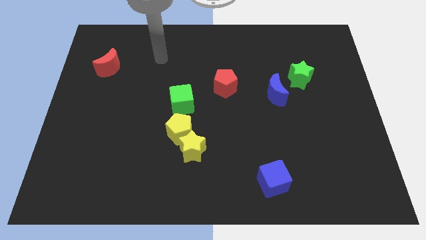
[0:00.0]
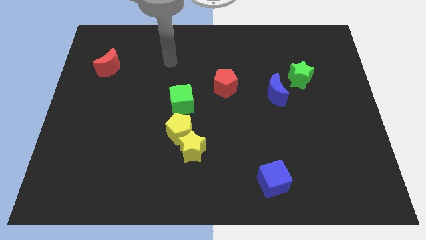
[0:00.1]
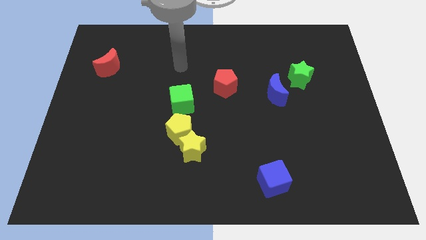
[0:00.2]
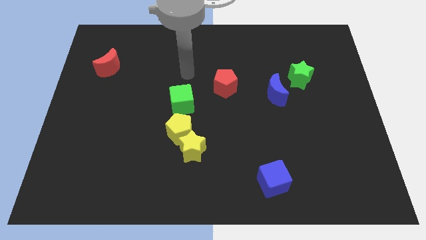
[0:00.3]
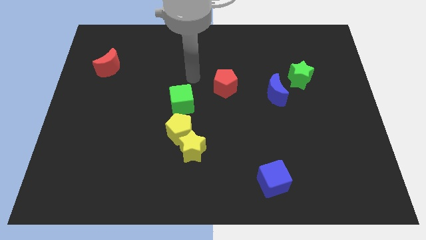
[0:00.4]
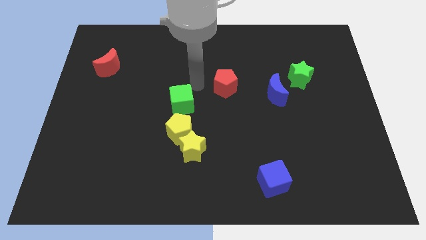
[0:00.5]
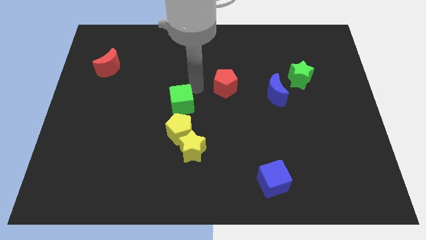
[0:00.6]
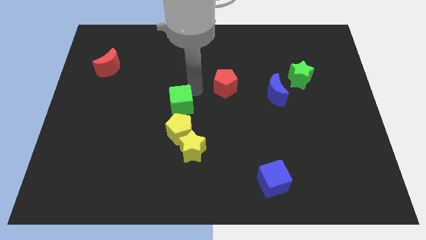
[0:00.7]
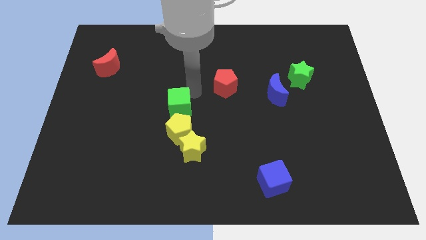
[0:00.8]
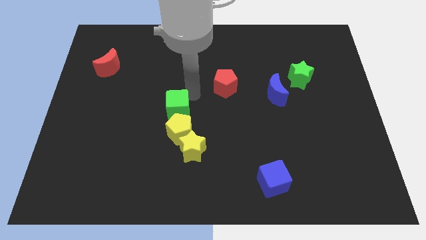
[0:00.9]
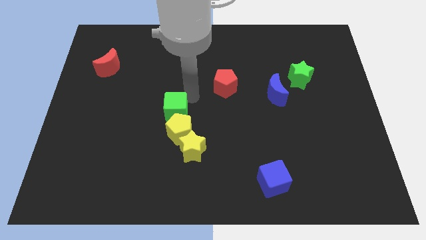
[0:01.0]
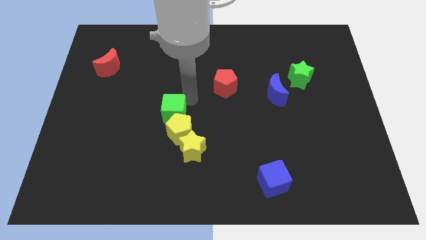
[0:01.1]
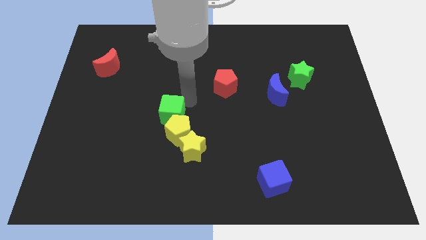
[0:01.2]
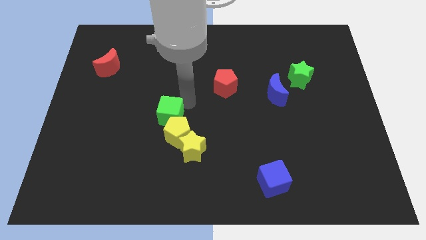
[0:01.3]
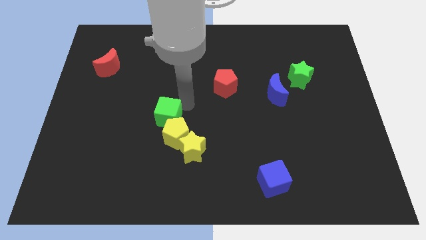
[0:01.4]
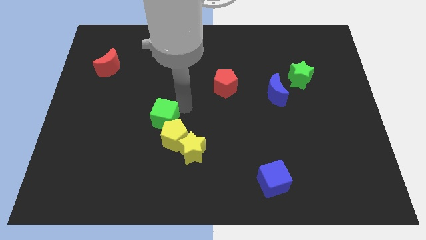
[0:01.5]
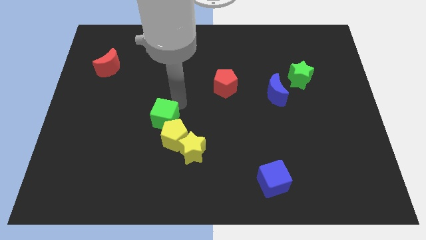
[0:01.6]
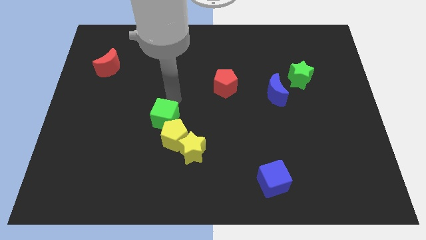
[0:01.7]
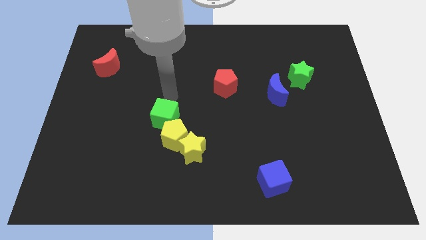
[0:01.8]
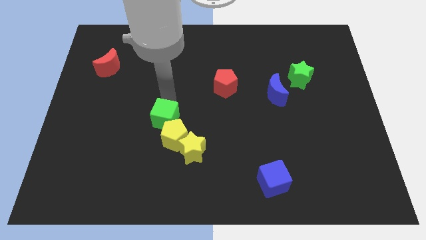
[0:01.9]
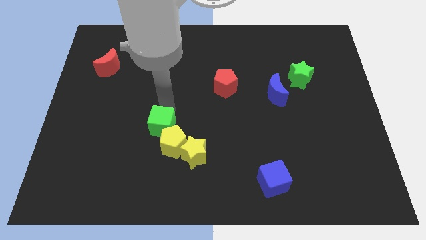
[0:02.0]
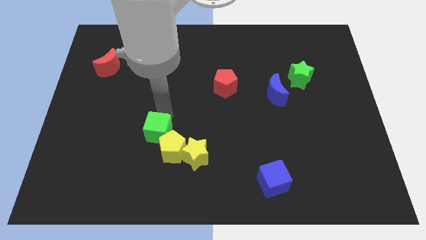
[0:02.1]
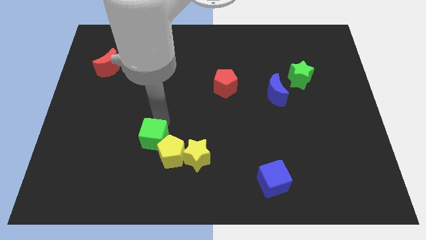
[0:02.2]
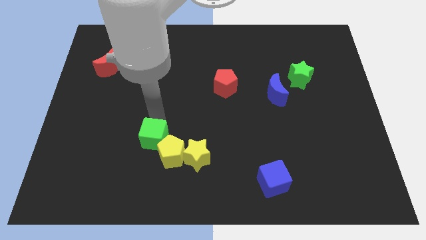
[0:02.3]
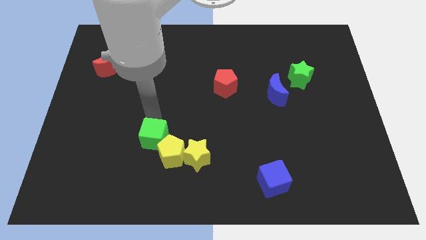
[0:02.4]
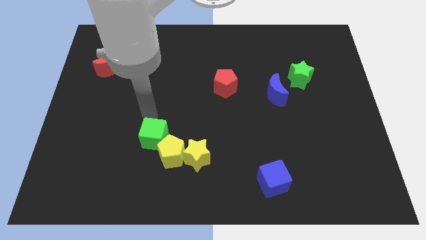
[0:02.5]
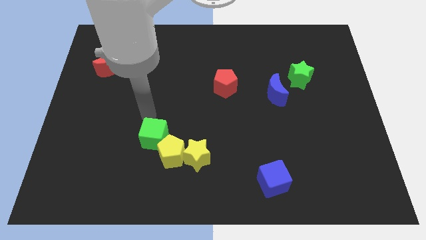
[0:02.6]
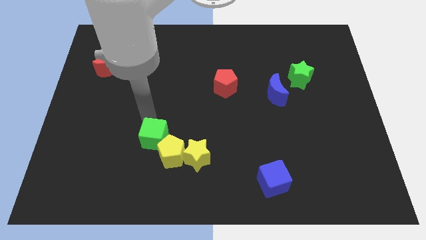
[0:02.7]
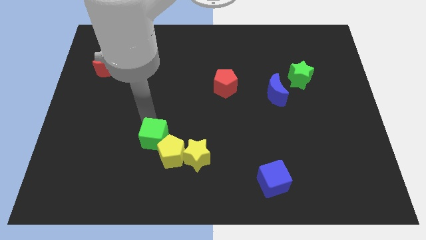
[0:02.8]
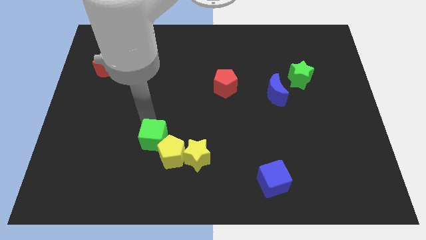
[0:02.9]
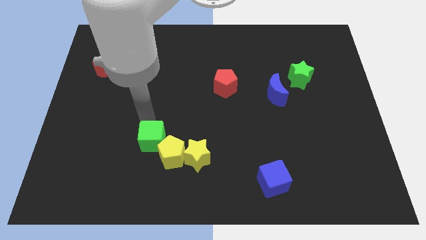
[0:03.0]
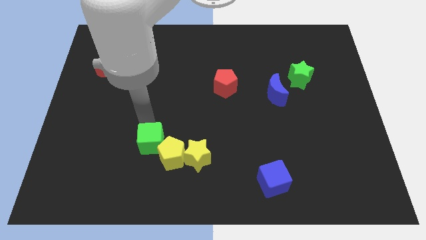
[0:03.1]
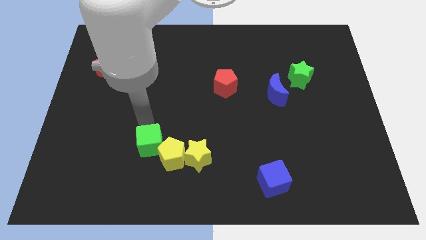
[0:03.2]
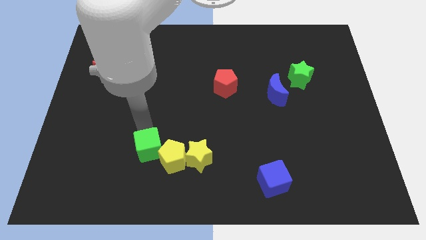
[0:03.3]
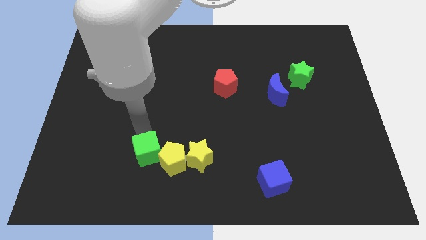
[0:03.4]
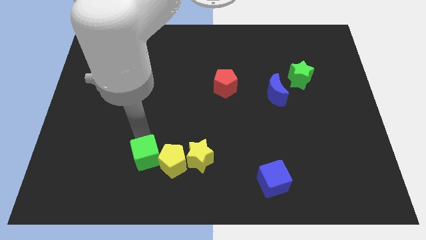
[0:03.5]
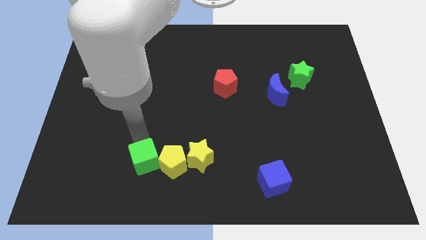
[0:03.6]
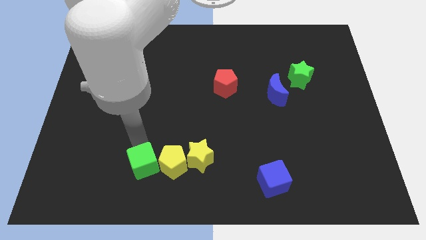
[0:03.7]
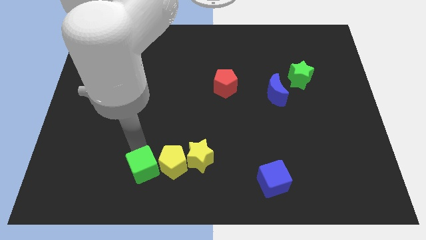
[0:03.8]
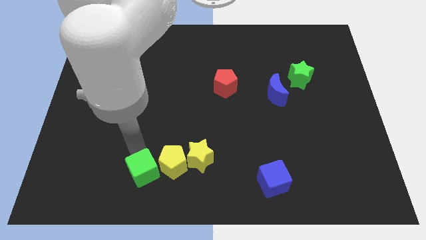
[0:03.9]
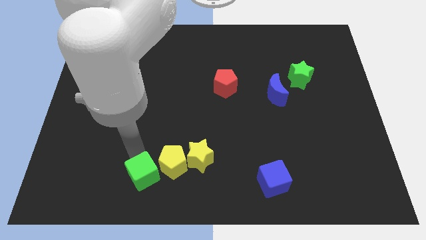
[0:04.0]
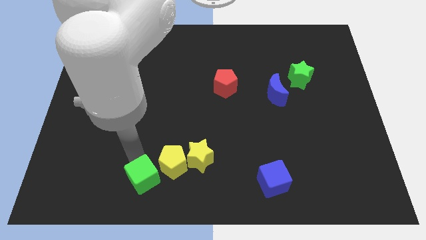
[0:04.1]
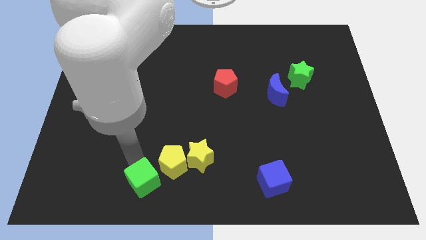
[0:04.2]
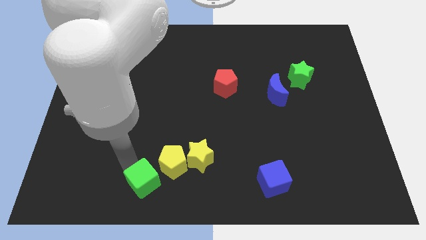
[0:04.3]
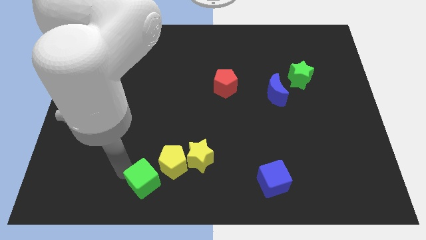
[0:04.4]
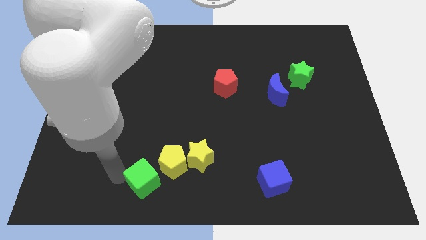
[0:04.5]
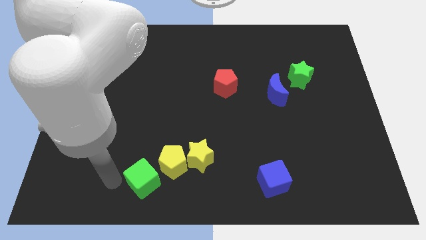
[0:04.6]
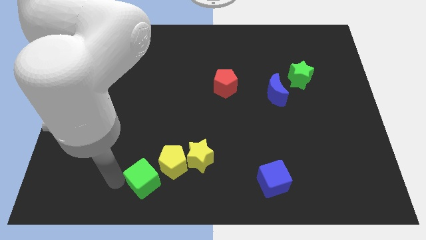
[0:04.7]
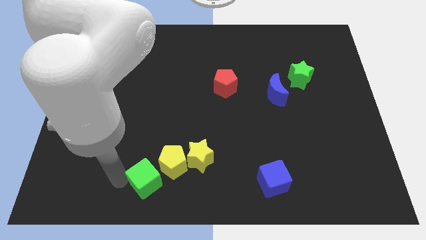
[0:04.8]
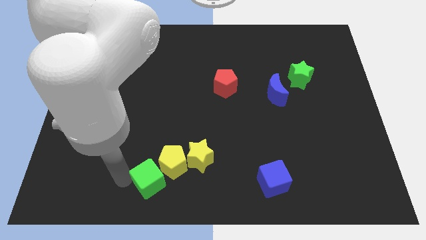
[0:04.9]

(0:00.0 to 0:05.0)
put the green cube to the bottom left side of the yellow star

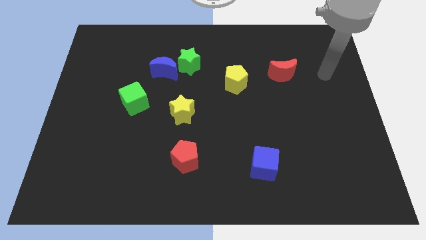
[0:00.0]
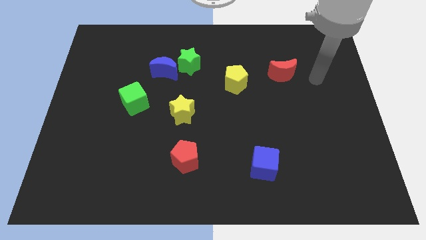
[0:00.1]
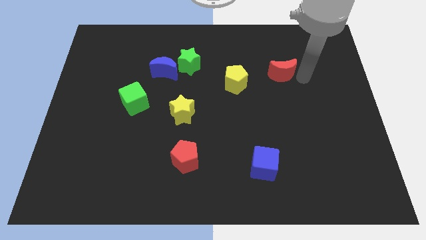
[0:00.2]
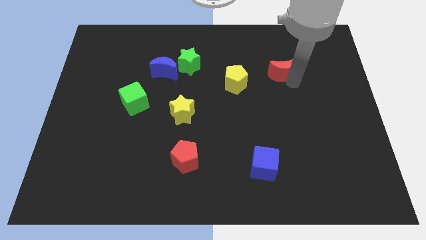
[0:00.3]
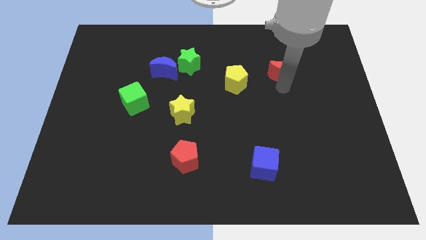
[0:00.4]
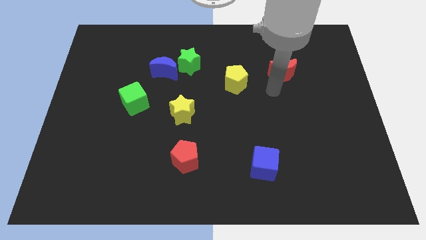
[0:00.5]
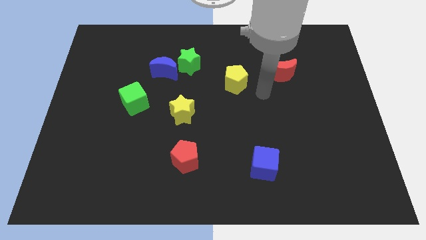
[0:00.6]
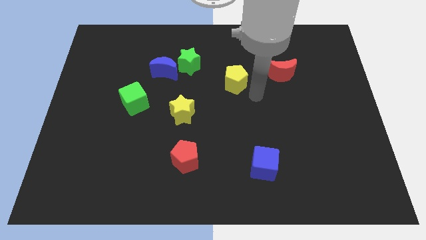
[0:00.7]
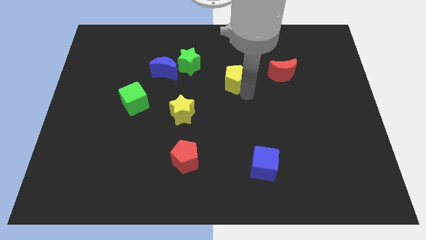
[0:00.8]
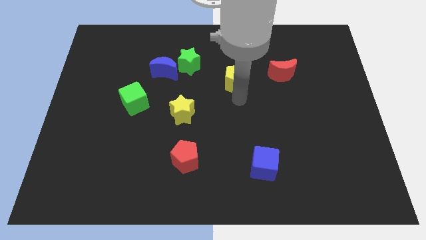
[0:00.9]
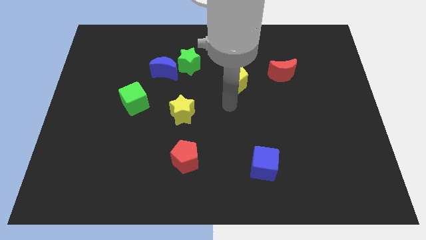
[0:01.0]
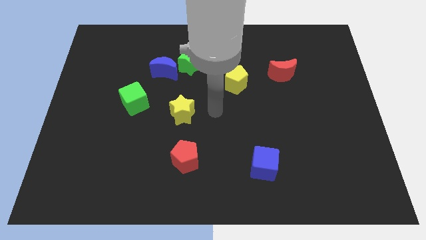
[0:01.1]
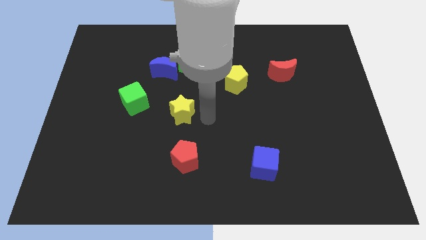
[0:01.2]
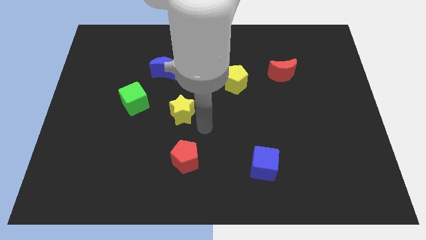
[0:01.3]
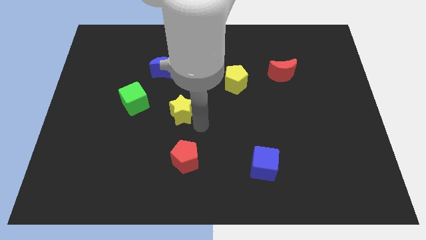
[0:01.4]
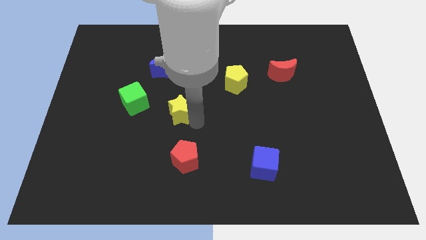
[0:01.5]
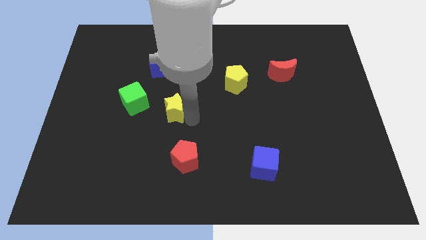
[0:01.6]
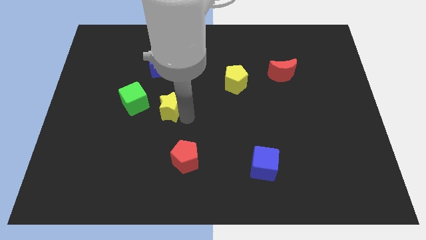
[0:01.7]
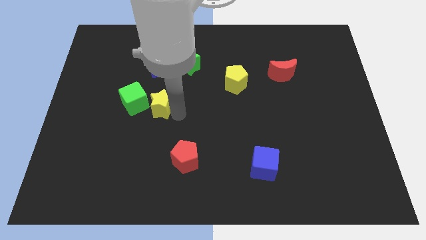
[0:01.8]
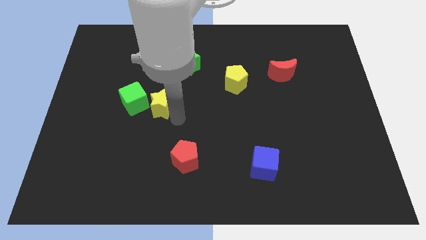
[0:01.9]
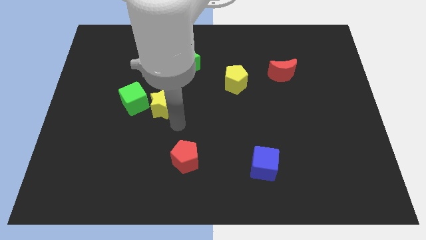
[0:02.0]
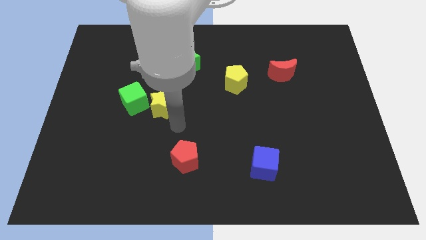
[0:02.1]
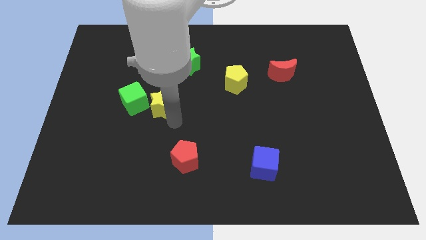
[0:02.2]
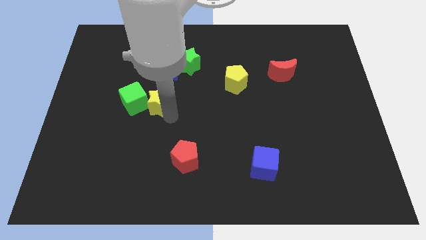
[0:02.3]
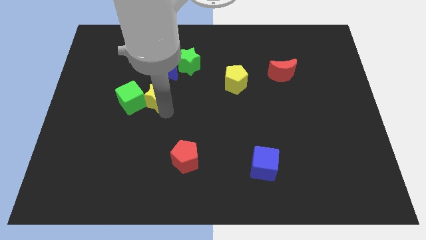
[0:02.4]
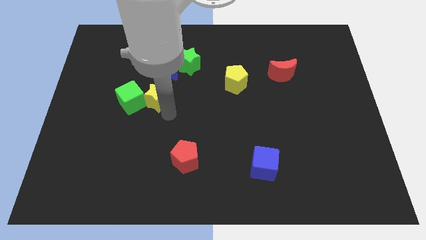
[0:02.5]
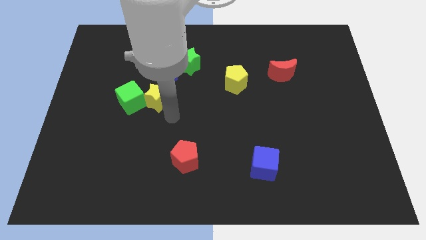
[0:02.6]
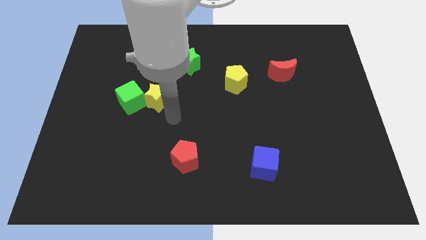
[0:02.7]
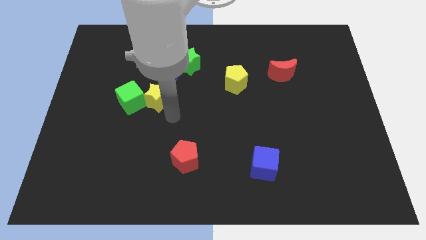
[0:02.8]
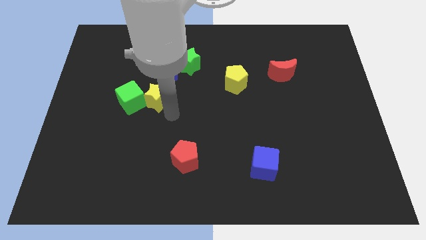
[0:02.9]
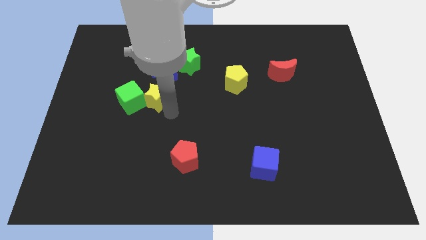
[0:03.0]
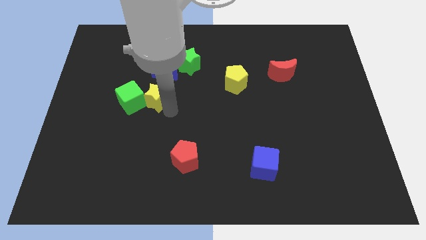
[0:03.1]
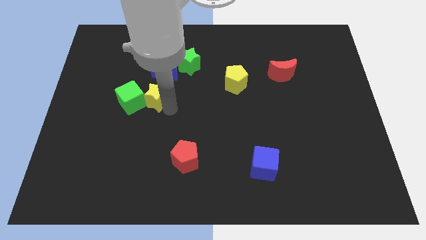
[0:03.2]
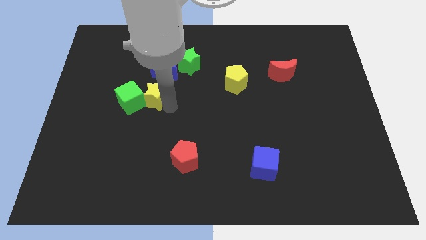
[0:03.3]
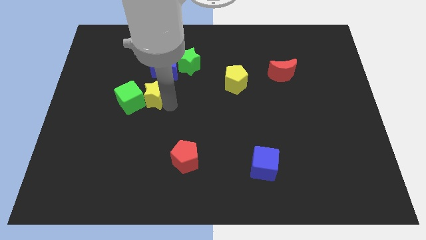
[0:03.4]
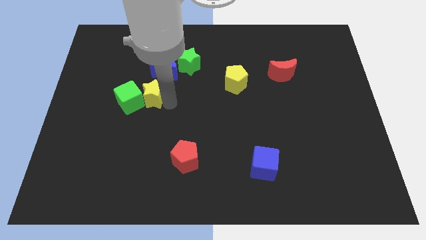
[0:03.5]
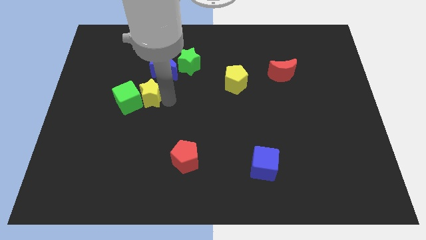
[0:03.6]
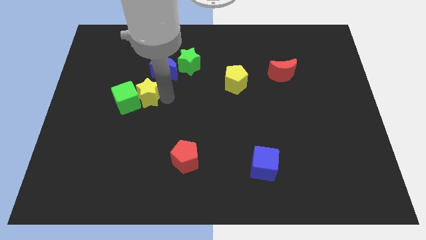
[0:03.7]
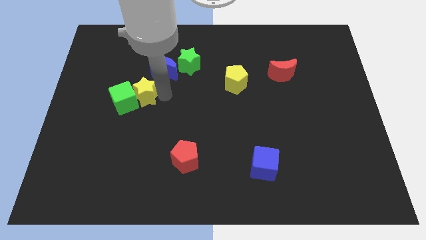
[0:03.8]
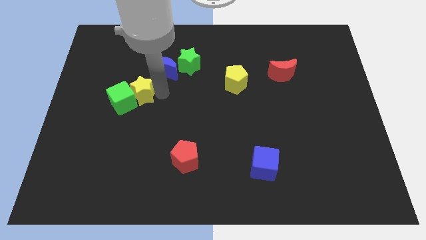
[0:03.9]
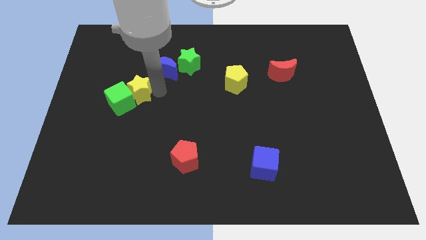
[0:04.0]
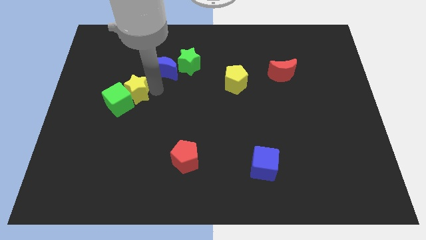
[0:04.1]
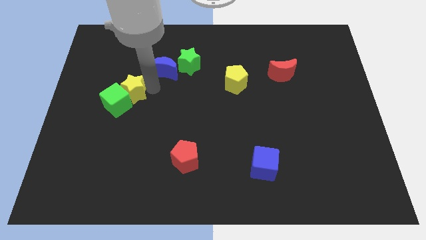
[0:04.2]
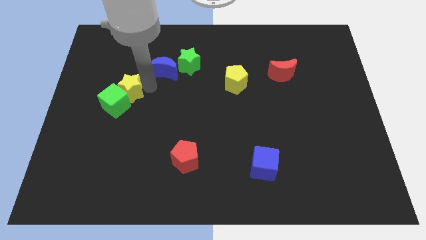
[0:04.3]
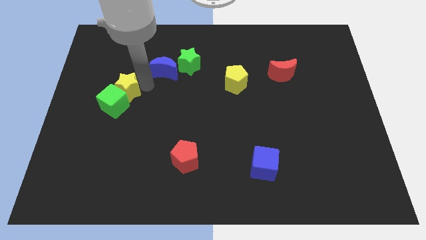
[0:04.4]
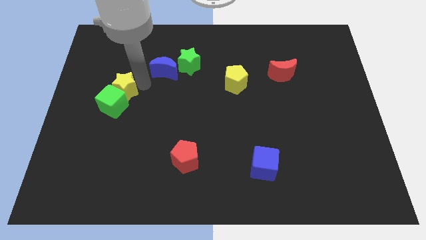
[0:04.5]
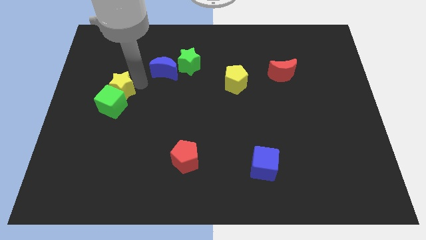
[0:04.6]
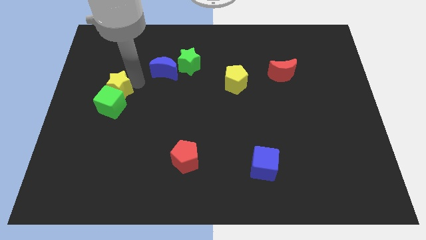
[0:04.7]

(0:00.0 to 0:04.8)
put the yellow star to the top left side of the green cube
